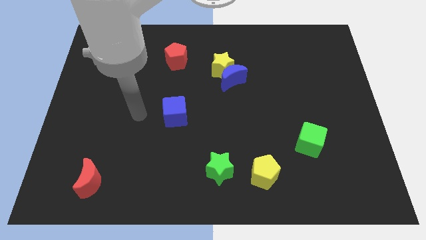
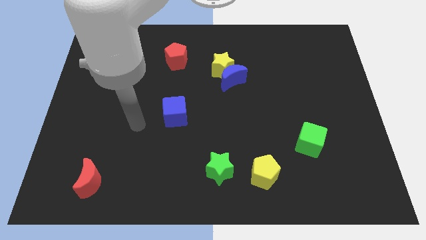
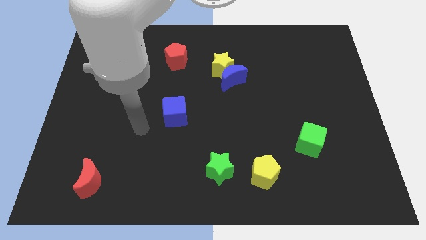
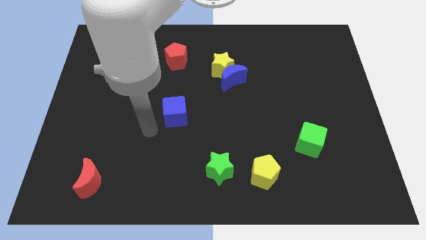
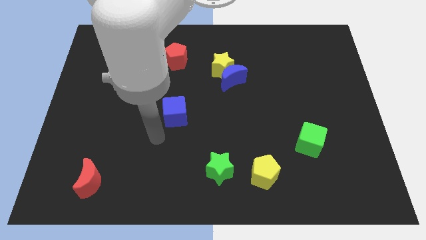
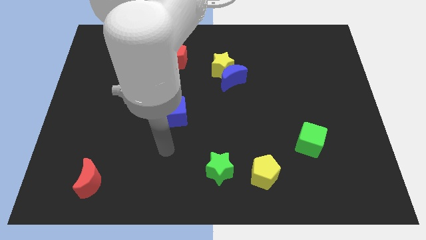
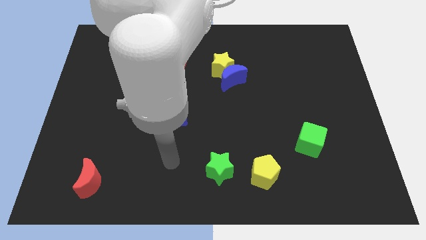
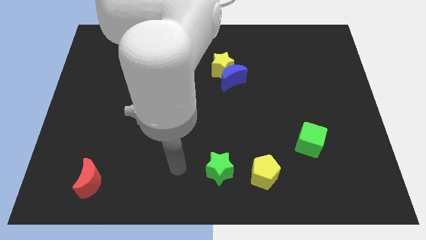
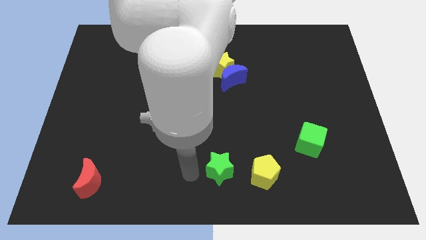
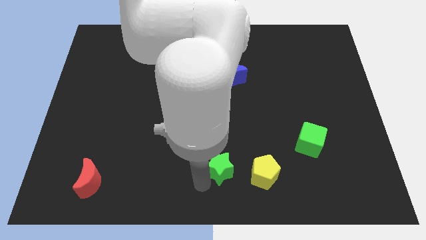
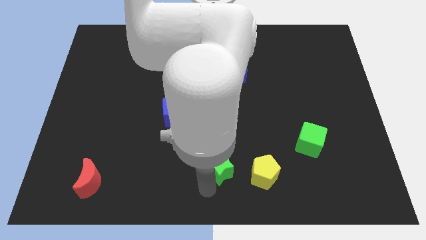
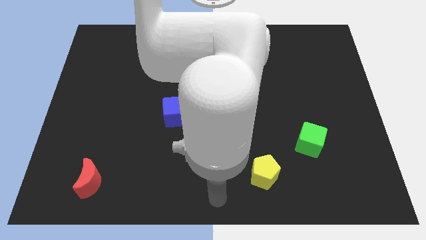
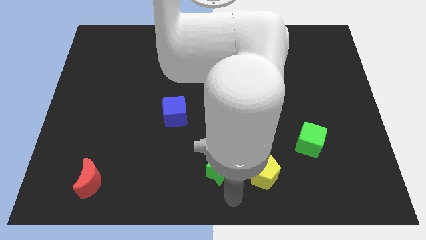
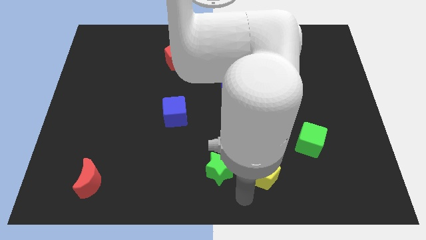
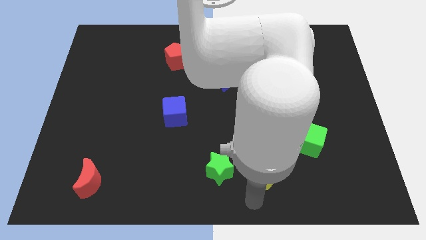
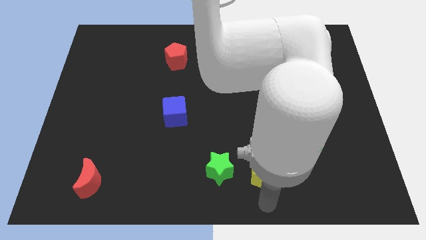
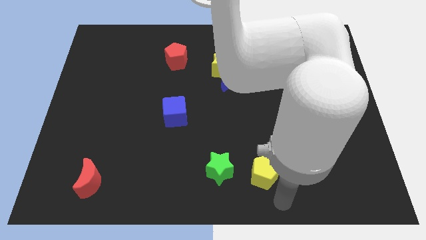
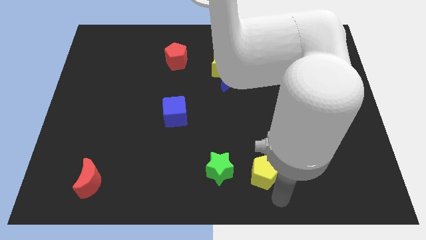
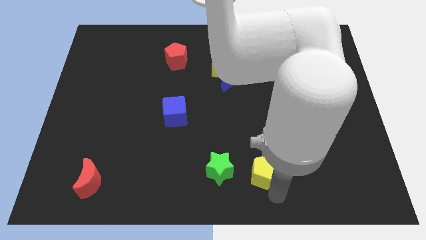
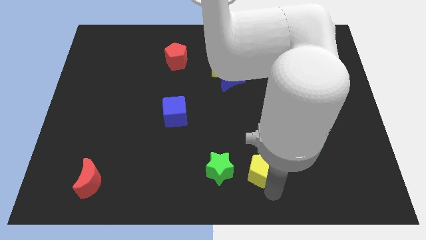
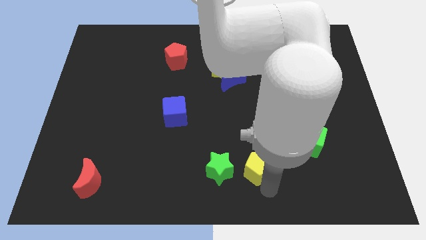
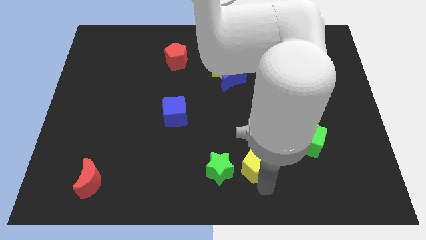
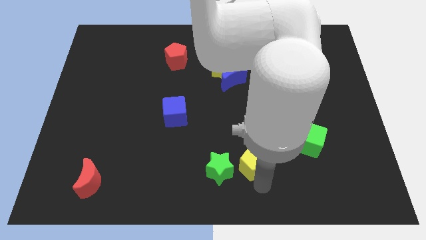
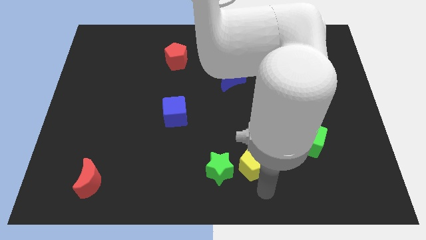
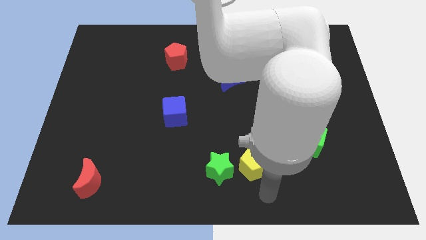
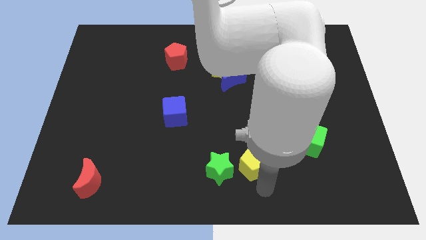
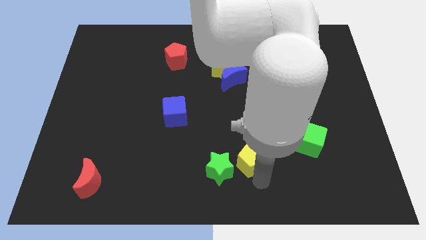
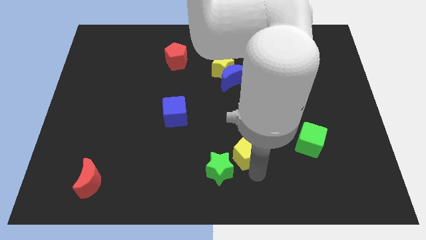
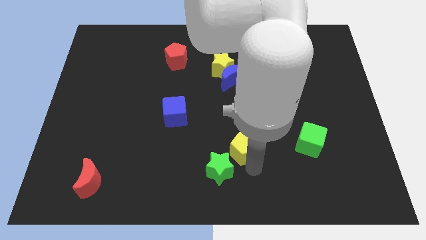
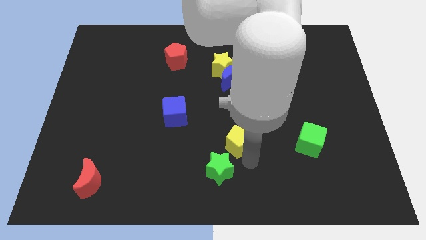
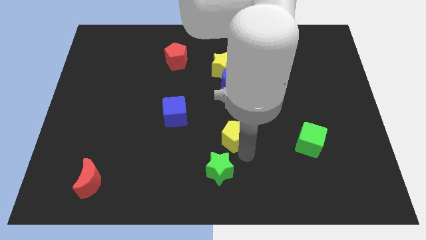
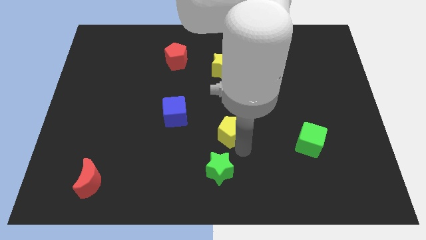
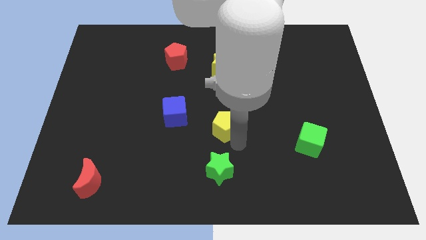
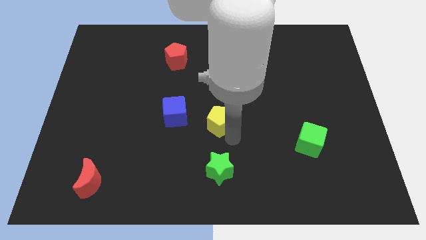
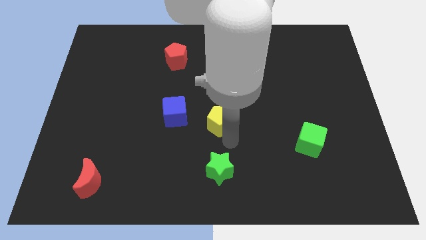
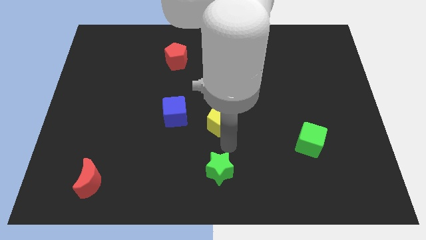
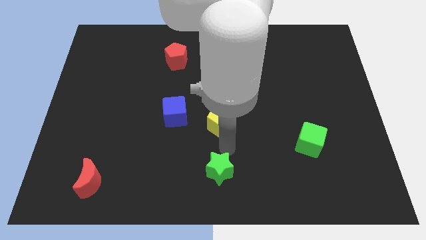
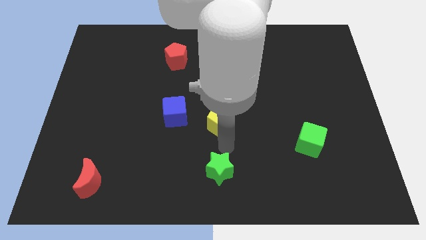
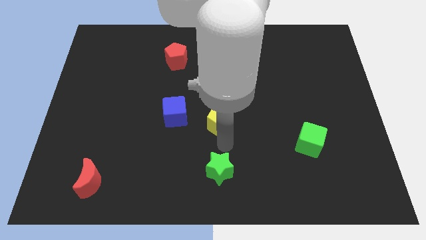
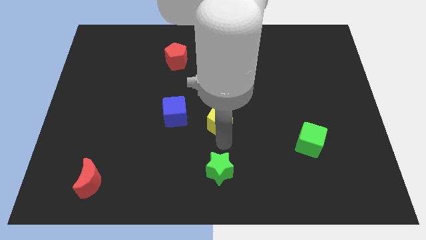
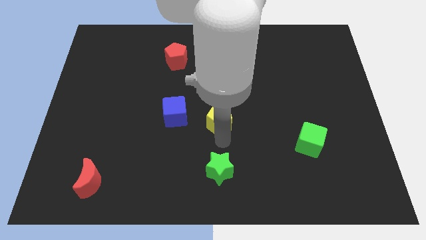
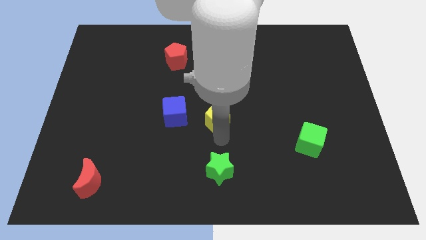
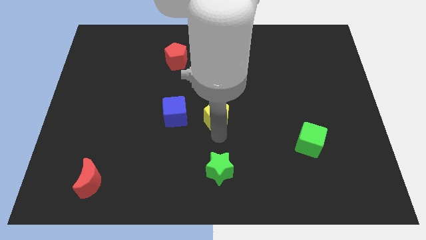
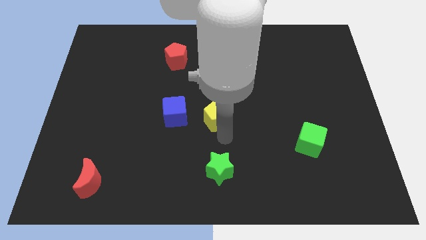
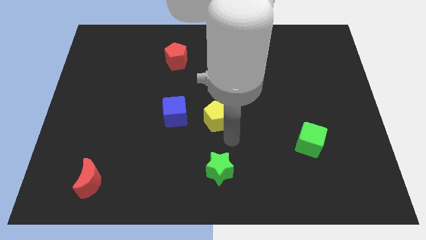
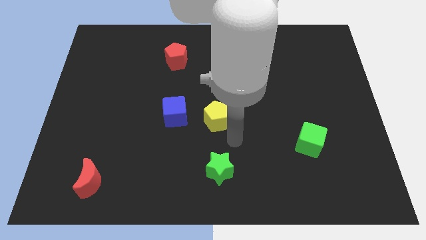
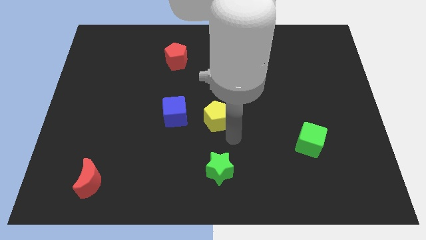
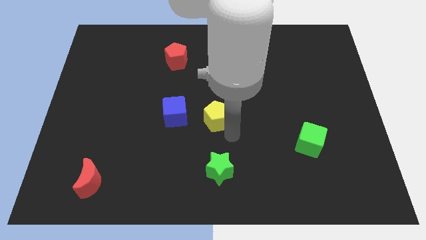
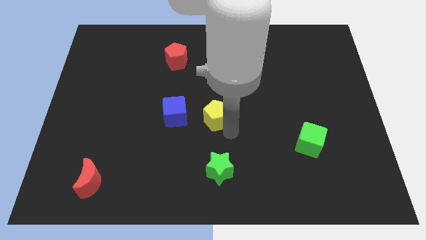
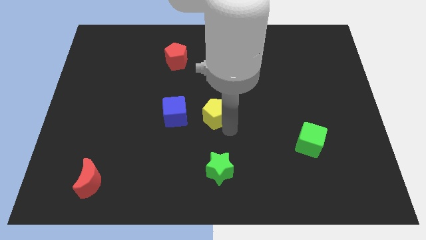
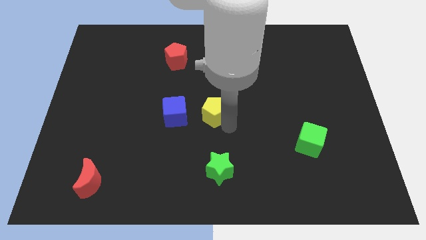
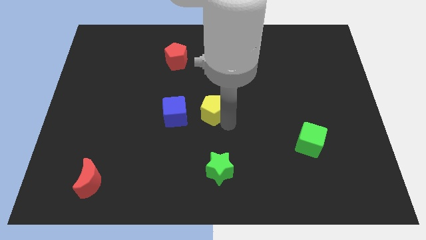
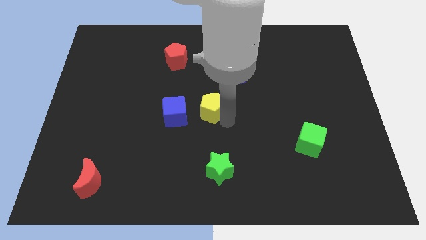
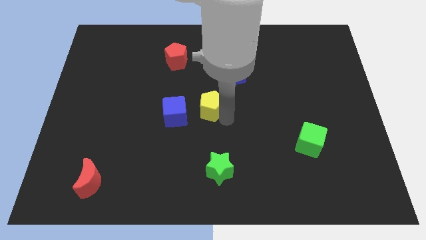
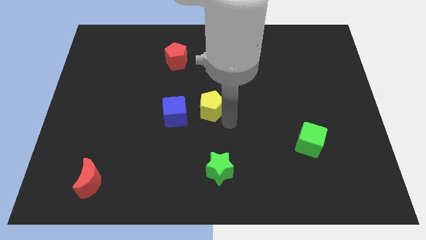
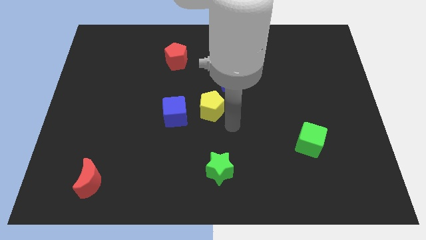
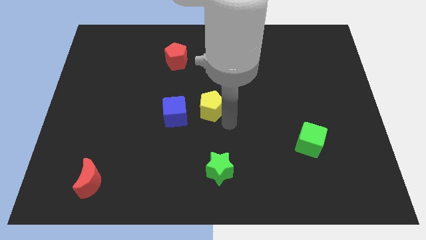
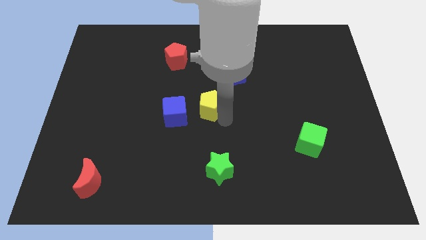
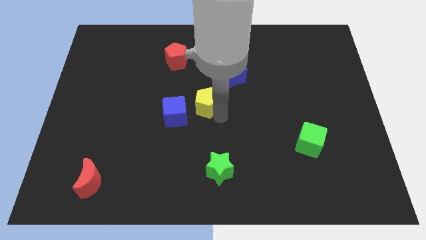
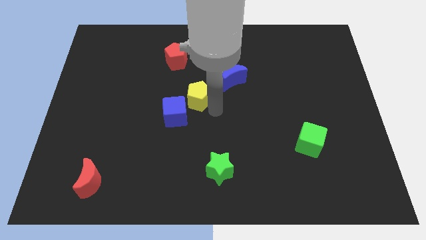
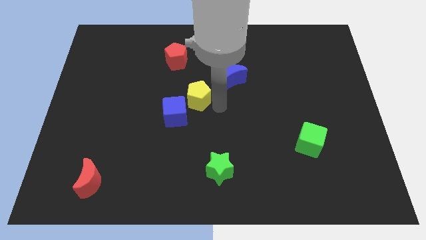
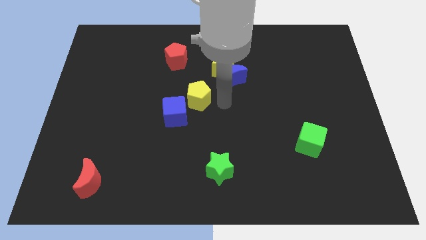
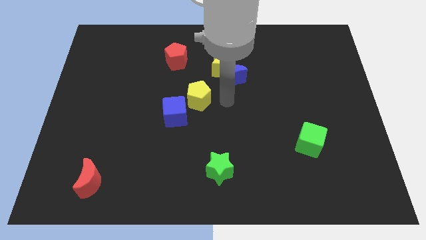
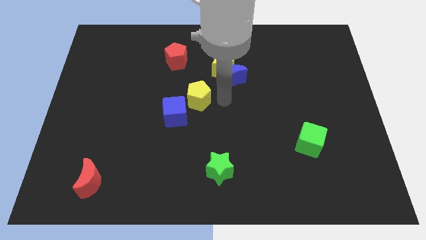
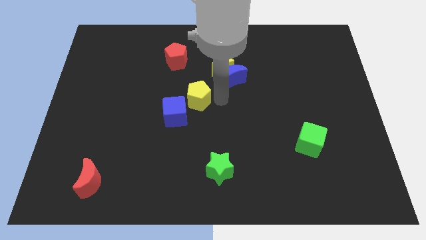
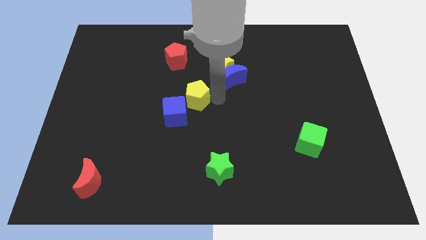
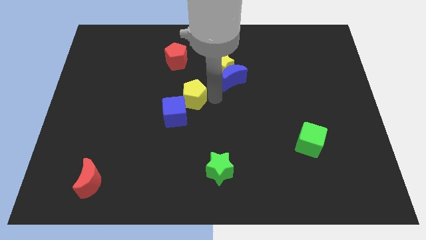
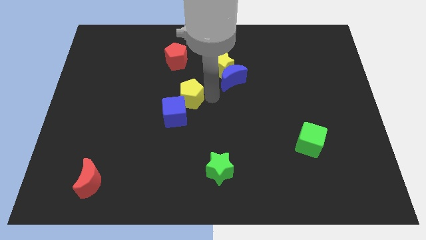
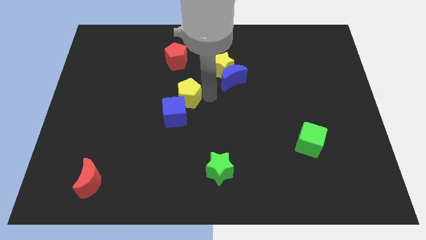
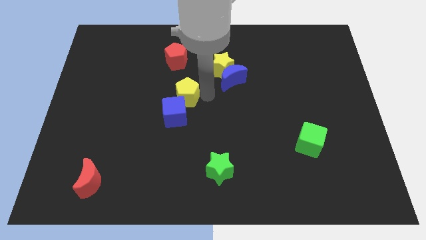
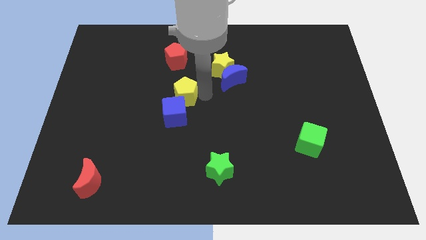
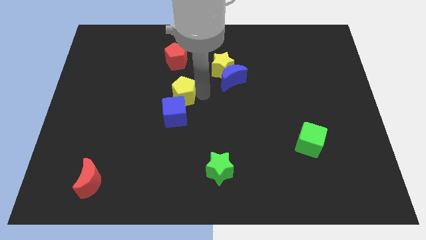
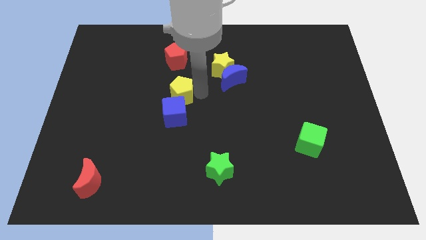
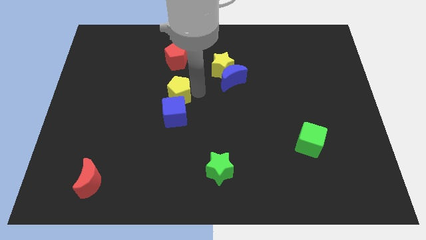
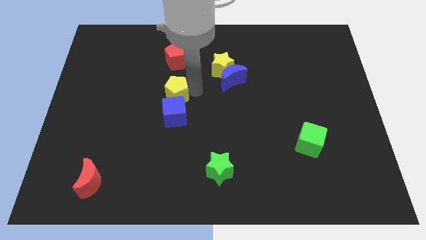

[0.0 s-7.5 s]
slide the yellow pentagon diagonally up and to the left of the blue cube

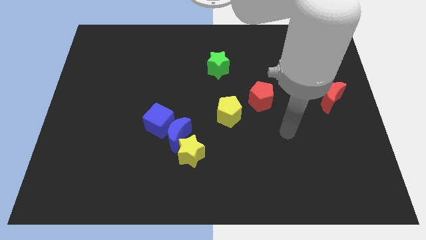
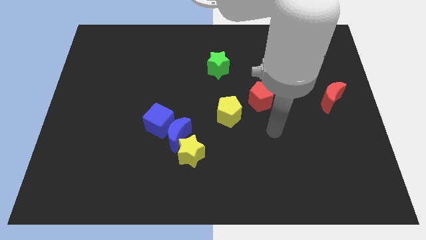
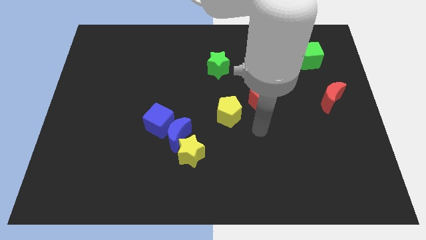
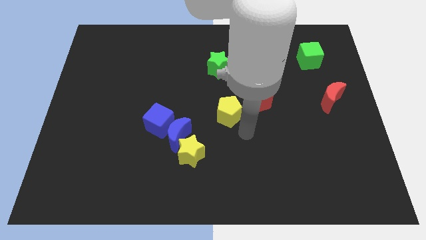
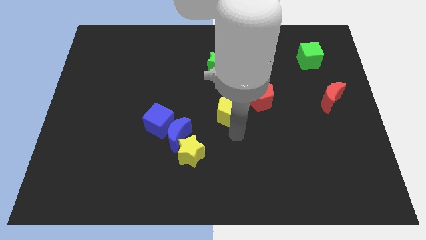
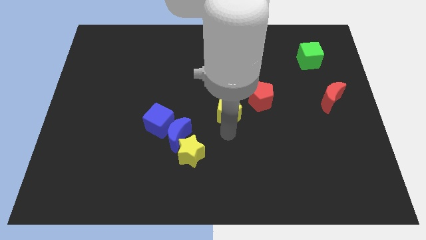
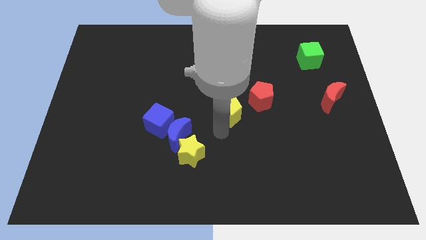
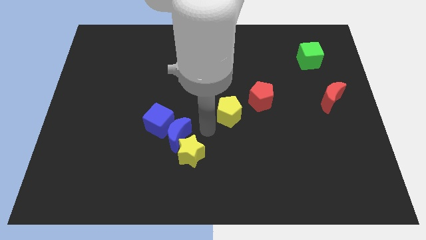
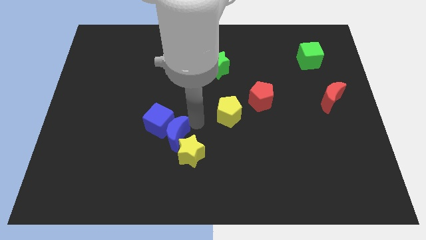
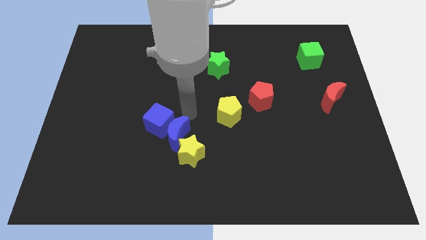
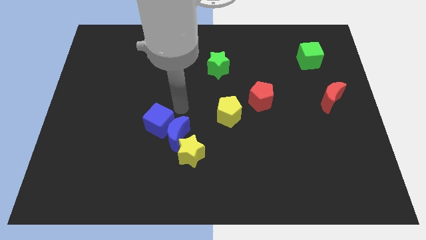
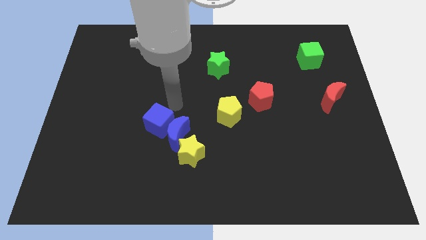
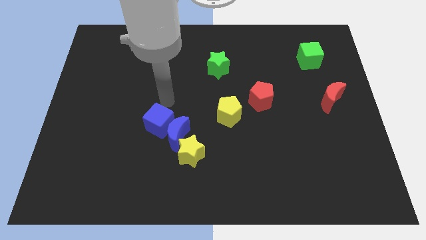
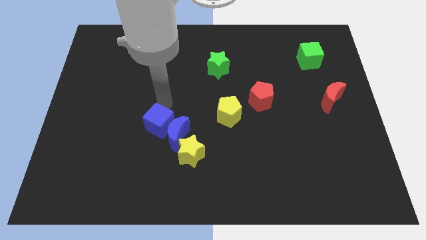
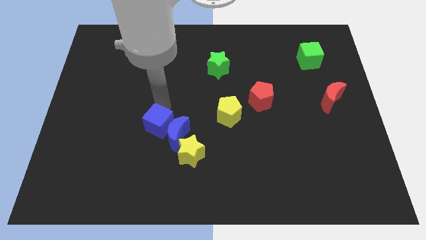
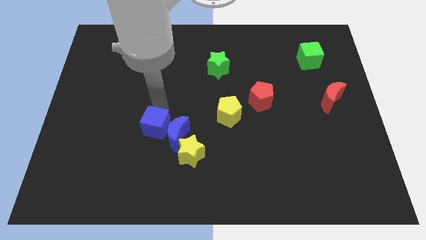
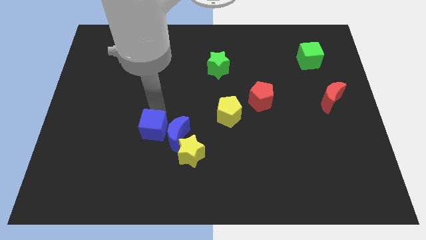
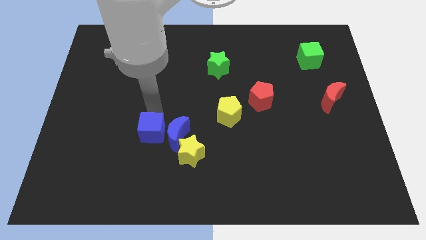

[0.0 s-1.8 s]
slide the blue cube to the bottom left of the blue moon
